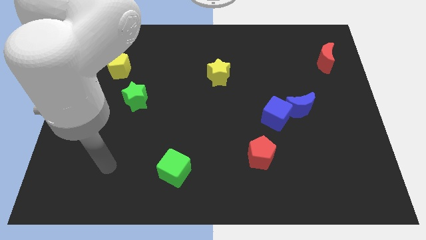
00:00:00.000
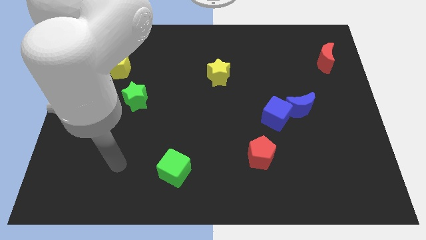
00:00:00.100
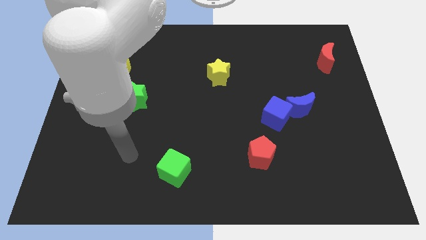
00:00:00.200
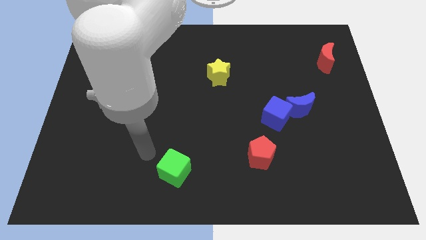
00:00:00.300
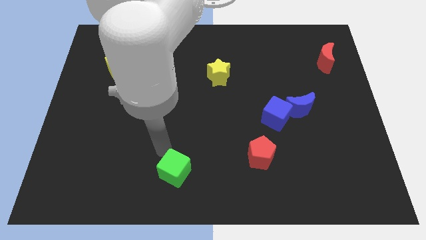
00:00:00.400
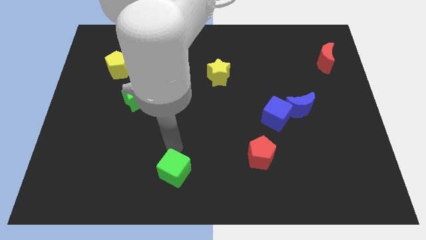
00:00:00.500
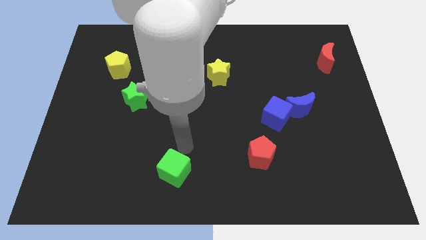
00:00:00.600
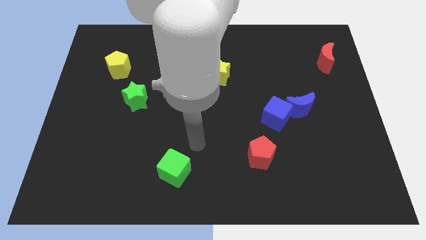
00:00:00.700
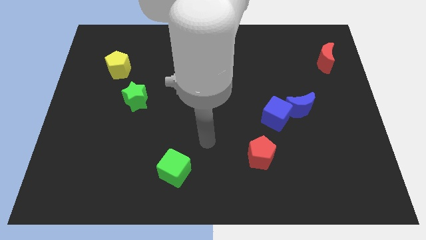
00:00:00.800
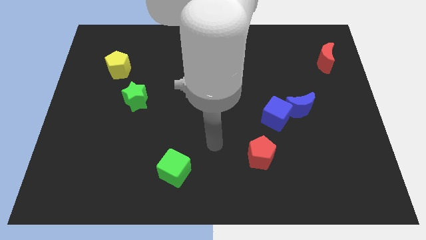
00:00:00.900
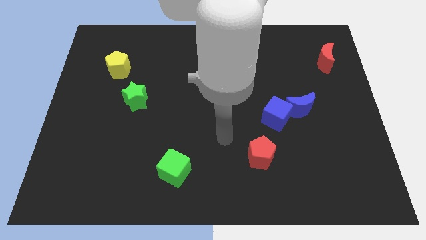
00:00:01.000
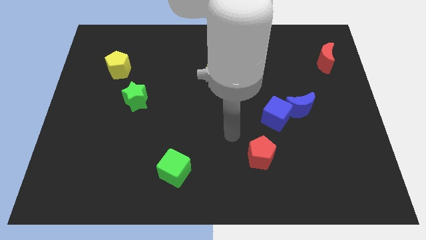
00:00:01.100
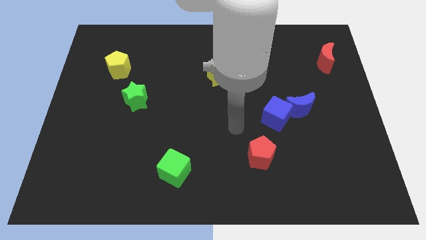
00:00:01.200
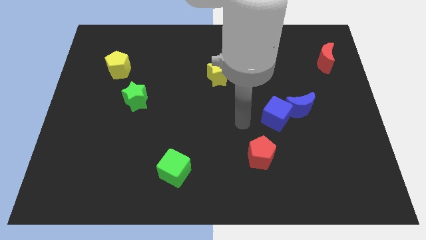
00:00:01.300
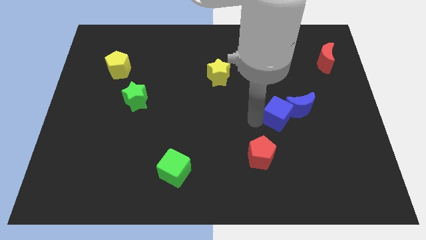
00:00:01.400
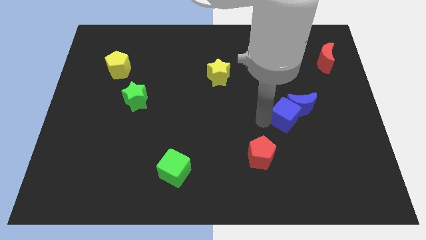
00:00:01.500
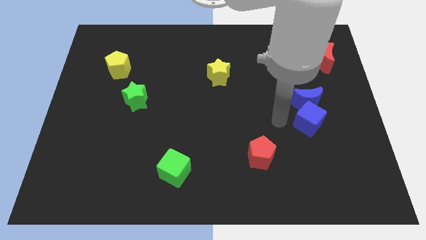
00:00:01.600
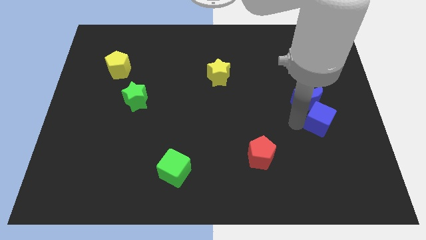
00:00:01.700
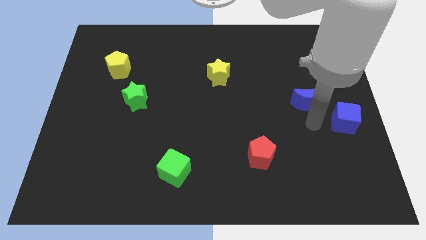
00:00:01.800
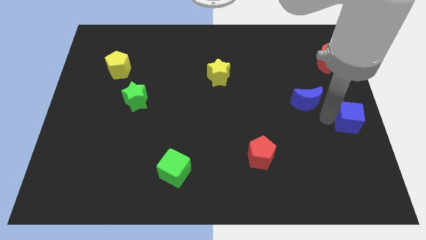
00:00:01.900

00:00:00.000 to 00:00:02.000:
separate the blue moon from the blue cube

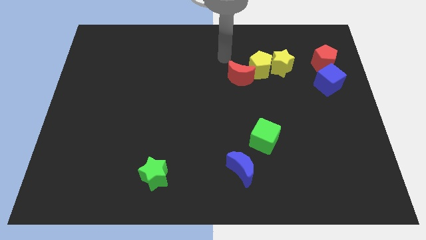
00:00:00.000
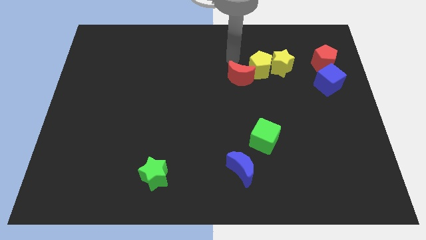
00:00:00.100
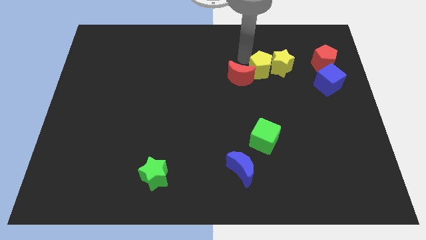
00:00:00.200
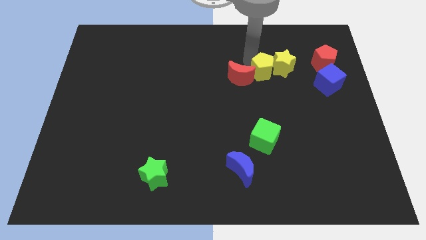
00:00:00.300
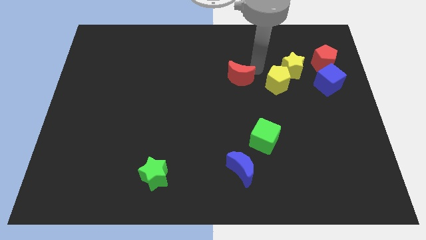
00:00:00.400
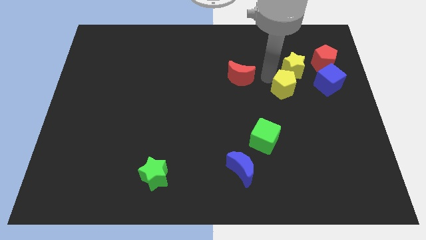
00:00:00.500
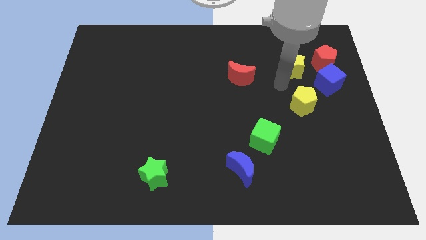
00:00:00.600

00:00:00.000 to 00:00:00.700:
pull the yellow star apart from the yellow pentagon

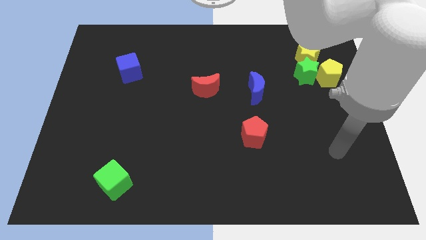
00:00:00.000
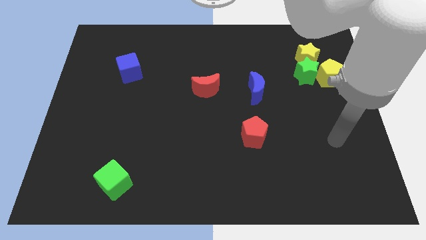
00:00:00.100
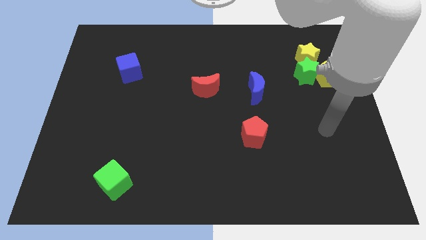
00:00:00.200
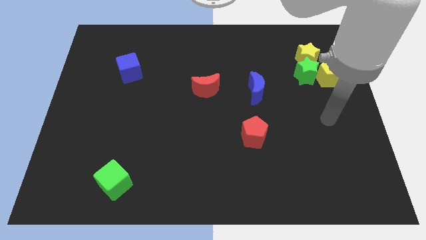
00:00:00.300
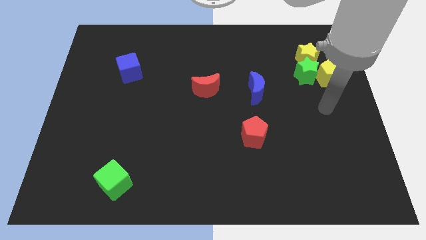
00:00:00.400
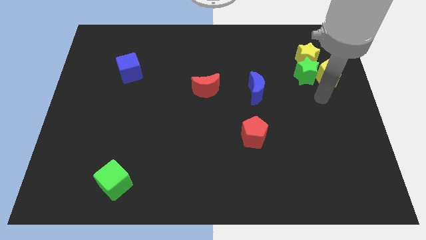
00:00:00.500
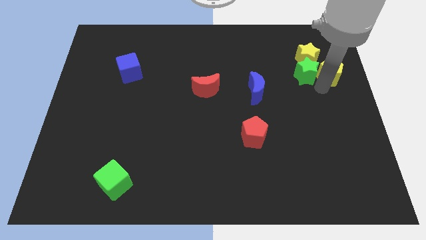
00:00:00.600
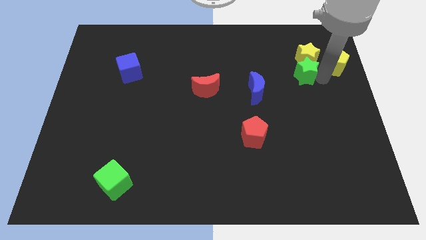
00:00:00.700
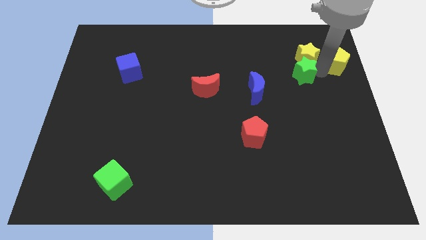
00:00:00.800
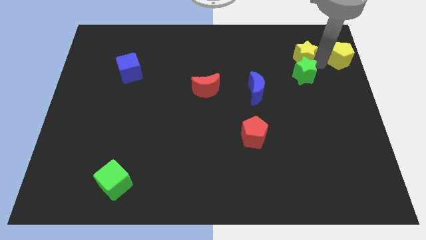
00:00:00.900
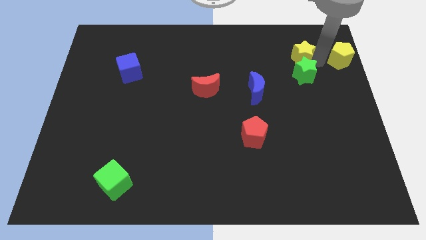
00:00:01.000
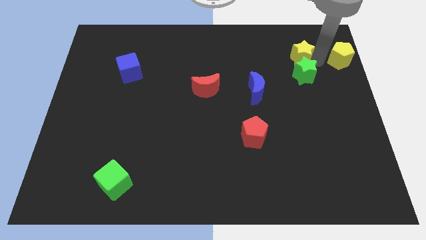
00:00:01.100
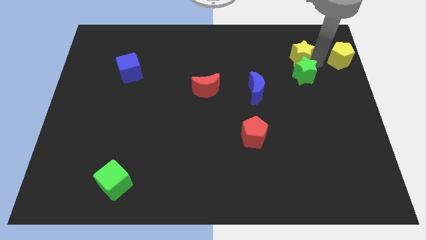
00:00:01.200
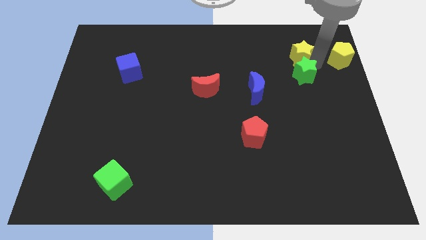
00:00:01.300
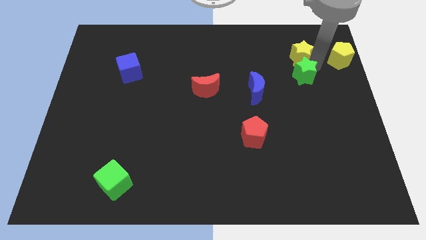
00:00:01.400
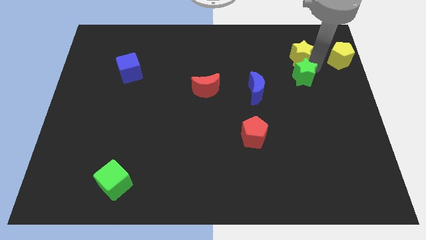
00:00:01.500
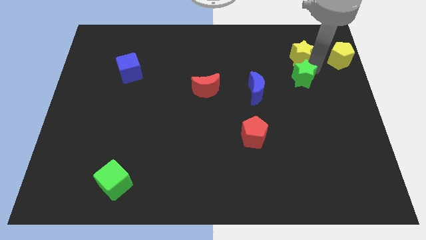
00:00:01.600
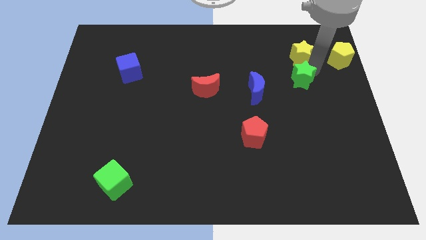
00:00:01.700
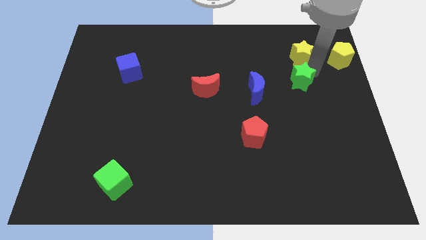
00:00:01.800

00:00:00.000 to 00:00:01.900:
move the green star away from the yellow star and yellow pentagon

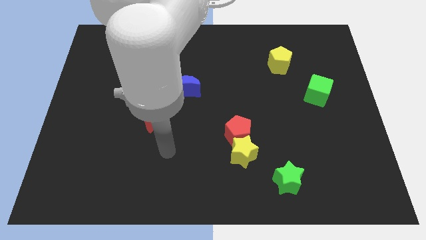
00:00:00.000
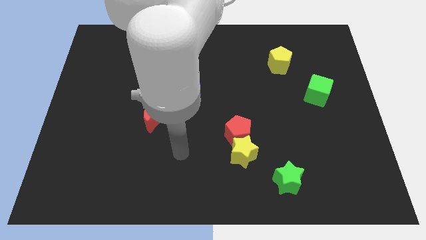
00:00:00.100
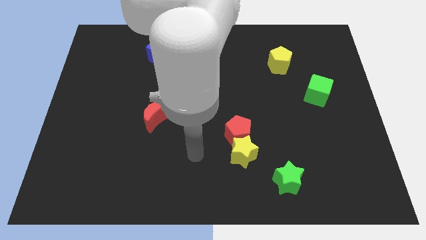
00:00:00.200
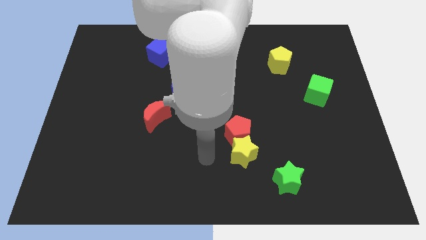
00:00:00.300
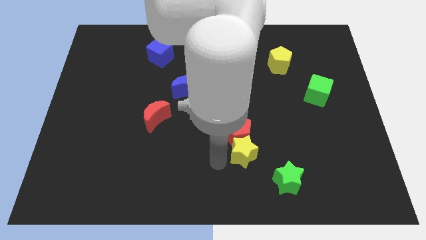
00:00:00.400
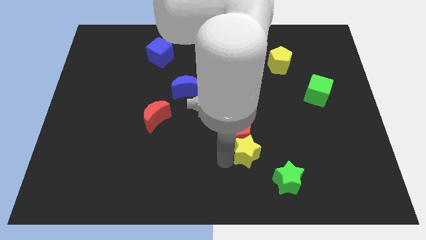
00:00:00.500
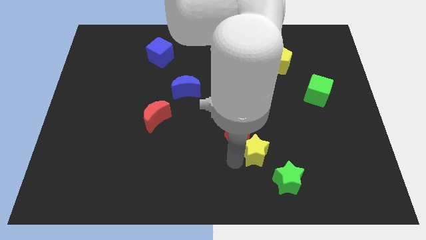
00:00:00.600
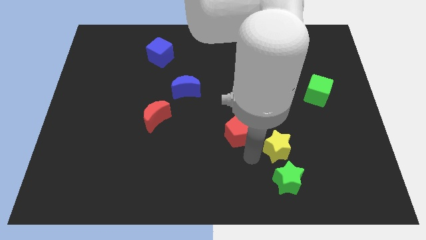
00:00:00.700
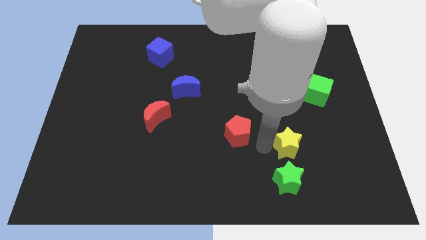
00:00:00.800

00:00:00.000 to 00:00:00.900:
pull the red pentagon apart from the yellow star

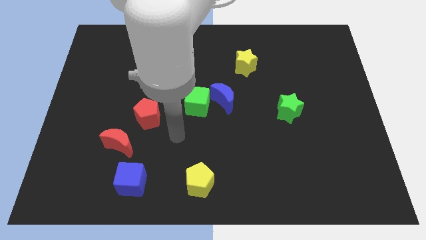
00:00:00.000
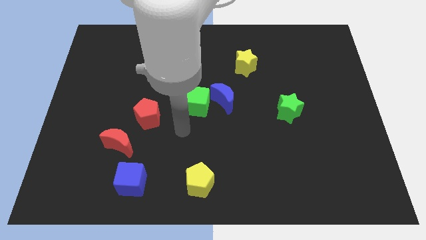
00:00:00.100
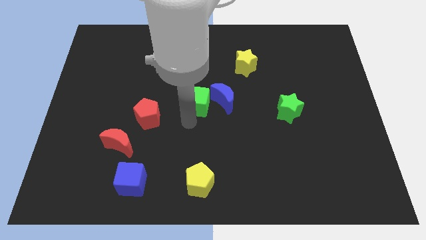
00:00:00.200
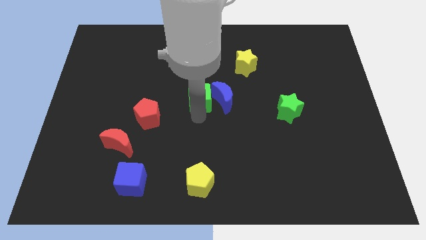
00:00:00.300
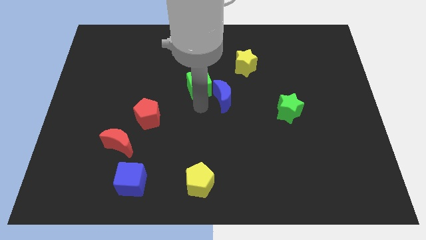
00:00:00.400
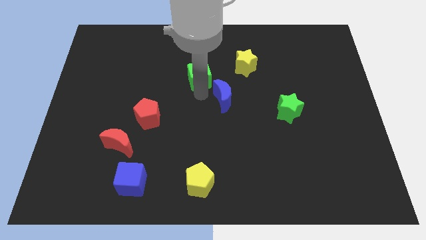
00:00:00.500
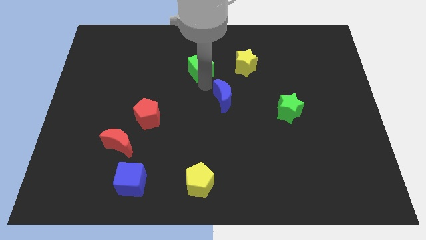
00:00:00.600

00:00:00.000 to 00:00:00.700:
separate the blue moon from the green cube

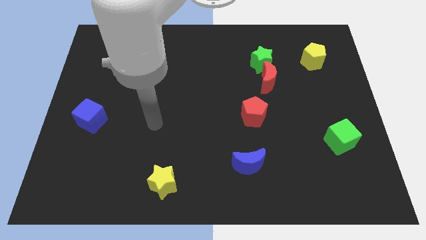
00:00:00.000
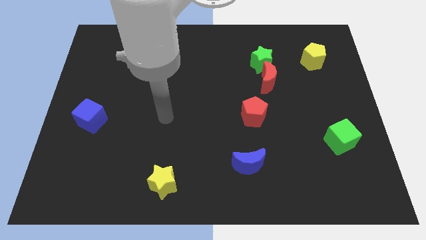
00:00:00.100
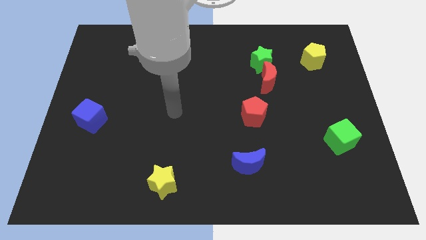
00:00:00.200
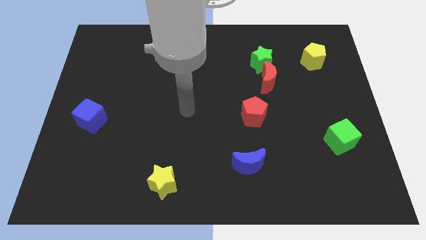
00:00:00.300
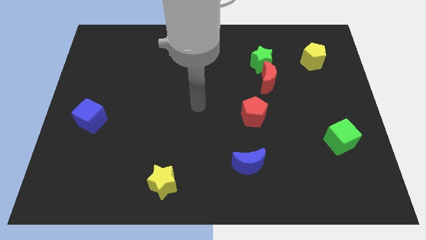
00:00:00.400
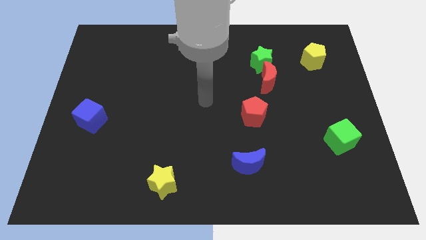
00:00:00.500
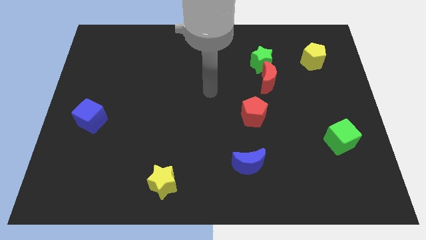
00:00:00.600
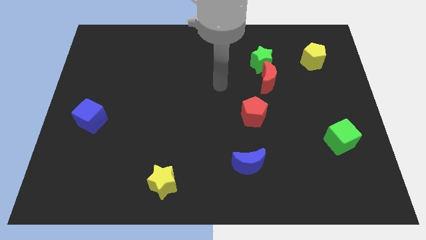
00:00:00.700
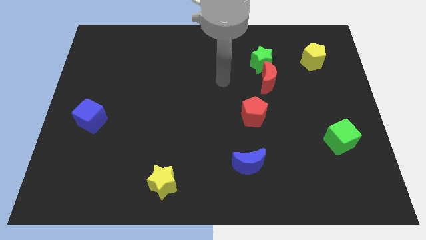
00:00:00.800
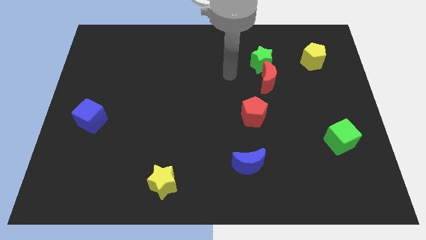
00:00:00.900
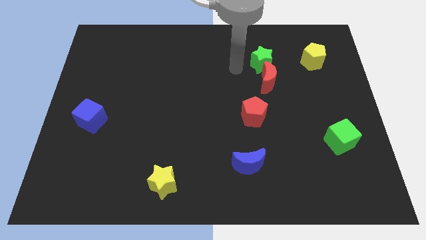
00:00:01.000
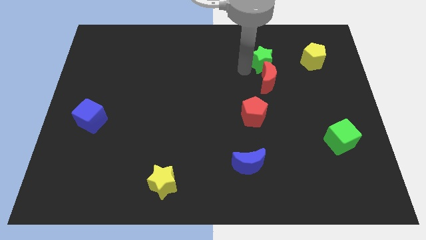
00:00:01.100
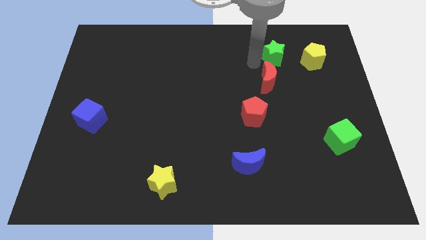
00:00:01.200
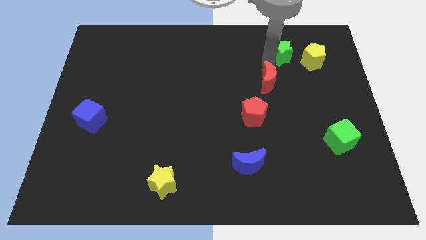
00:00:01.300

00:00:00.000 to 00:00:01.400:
pull the red moon apart from the green star

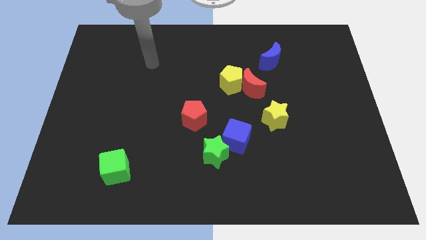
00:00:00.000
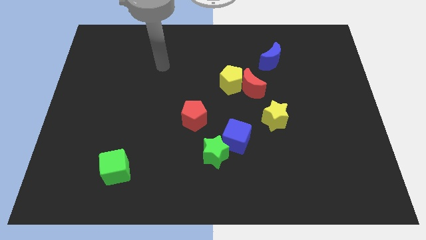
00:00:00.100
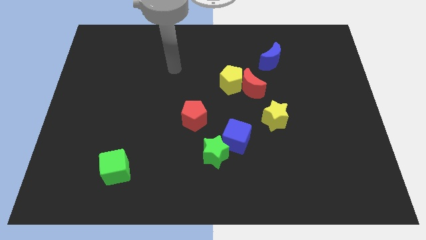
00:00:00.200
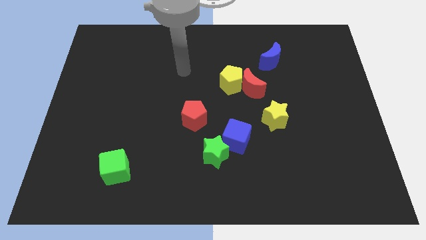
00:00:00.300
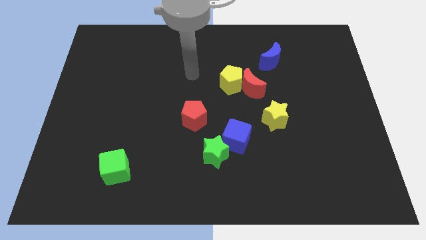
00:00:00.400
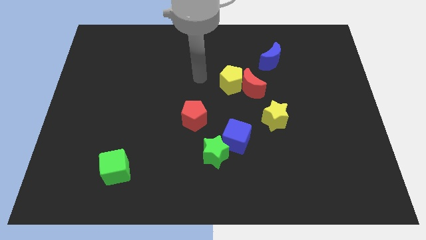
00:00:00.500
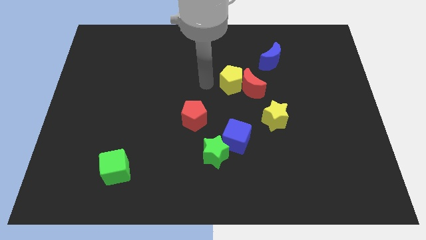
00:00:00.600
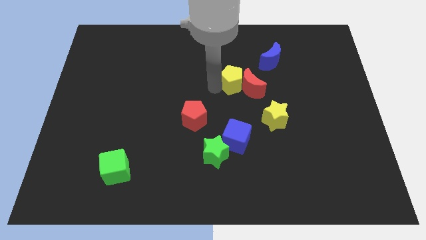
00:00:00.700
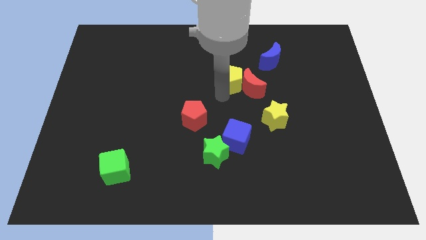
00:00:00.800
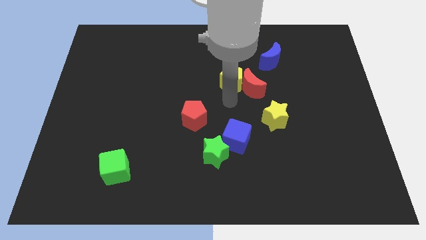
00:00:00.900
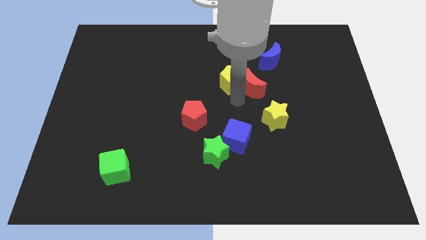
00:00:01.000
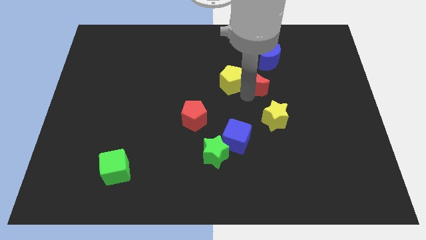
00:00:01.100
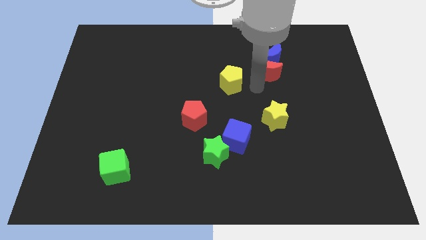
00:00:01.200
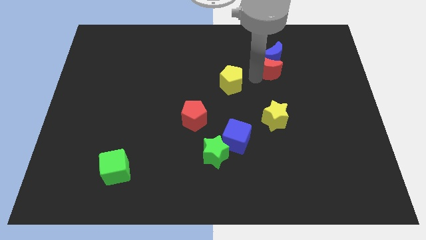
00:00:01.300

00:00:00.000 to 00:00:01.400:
pull the yellow pentagon apart from the red moon

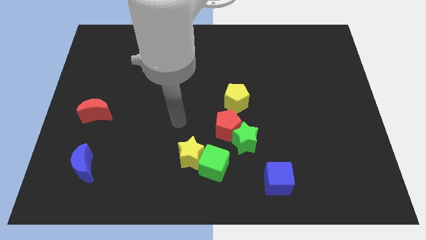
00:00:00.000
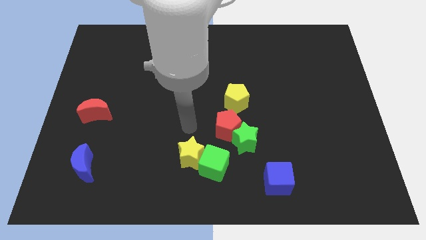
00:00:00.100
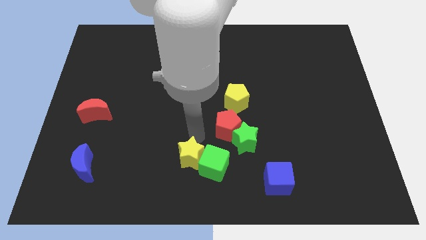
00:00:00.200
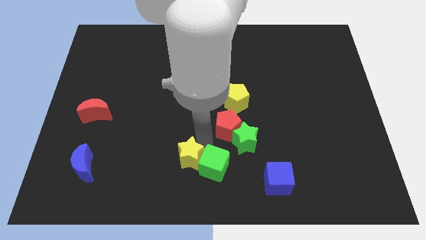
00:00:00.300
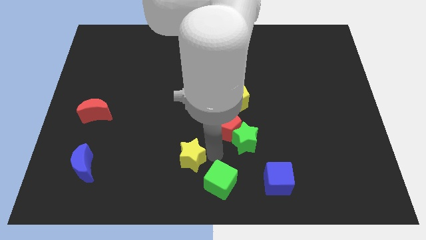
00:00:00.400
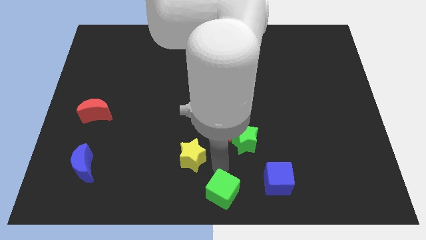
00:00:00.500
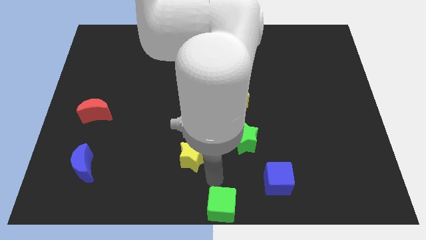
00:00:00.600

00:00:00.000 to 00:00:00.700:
separate the yellow star from the green cube
